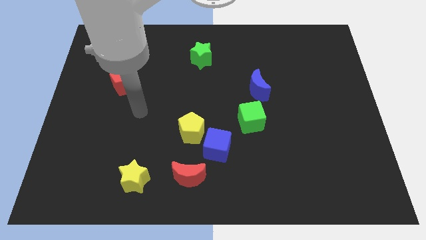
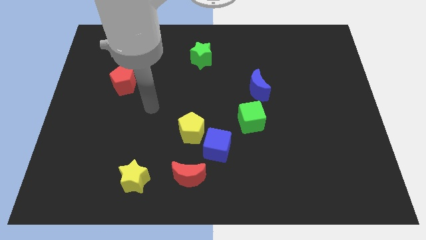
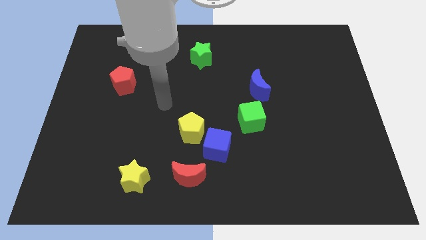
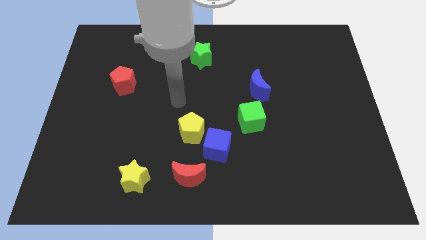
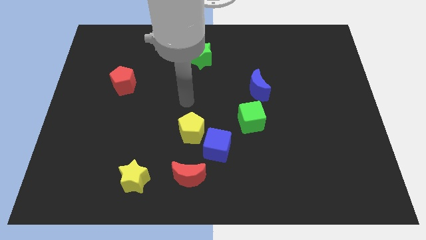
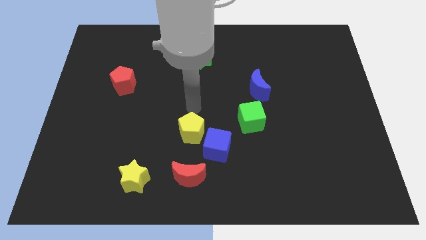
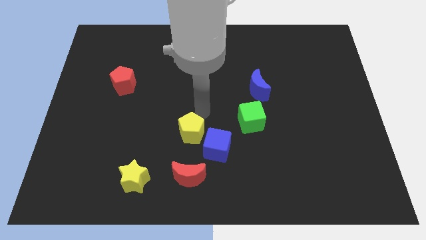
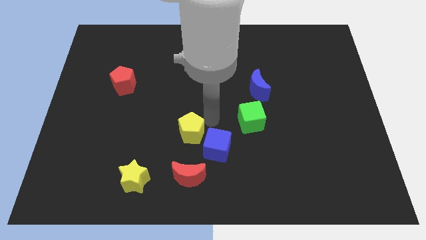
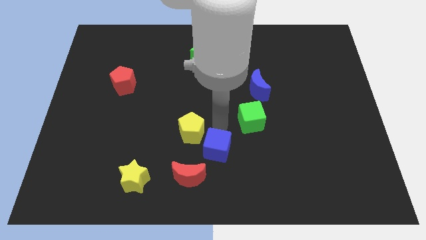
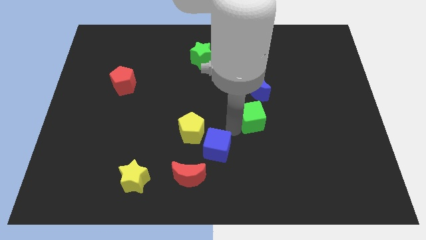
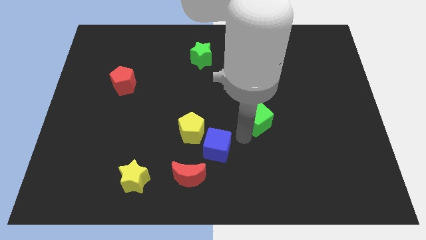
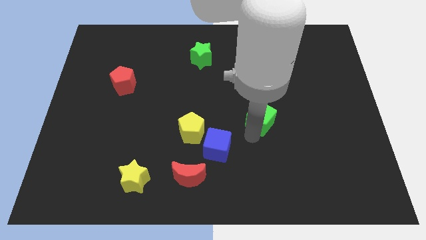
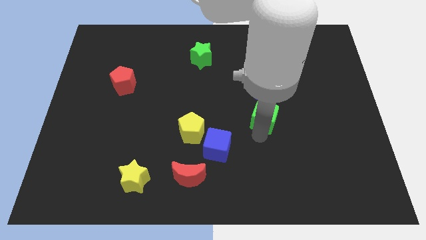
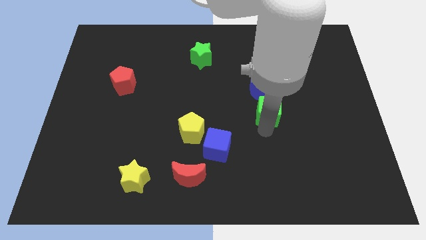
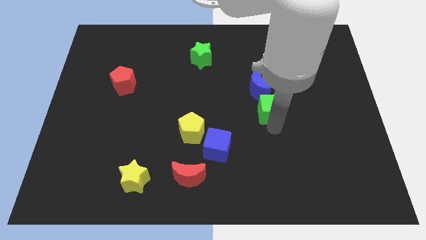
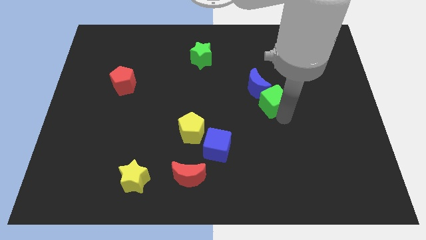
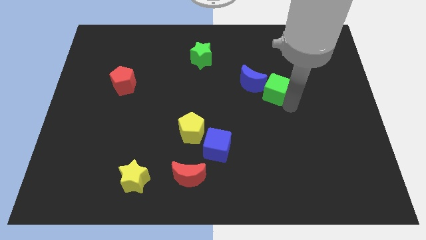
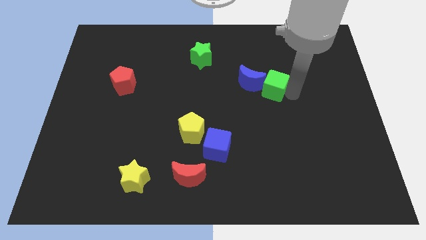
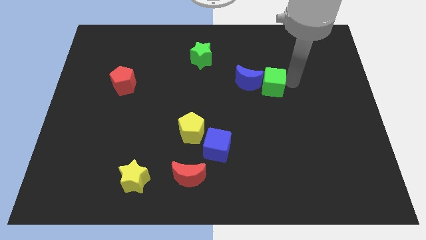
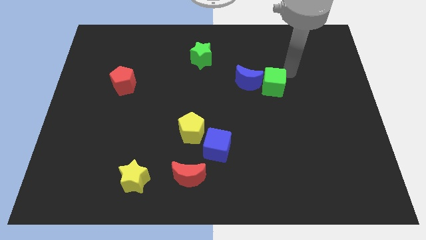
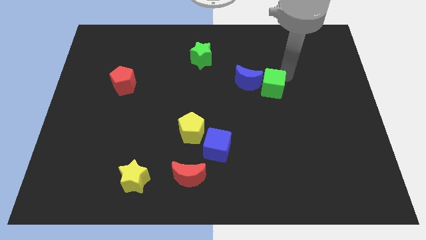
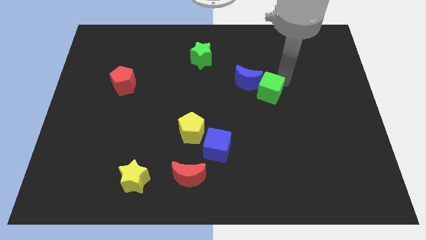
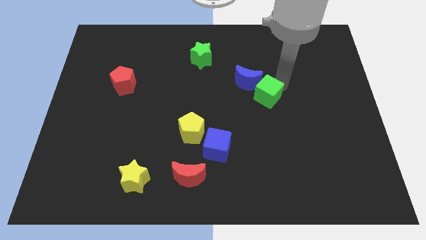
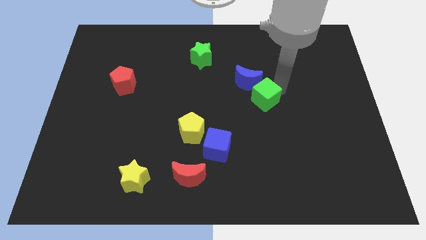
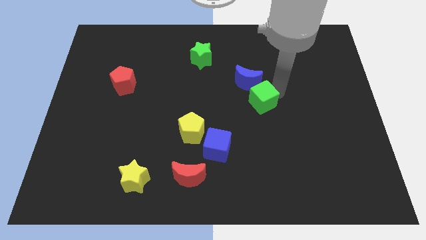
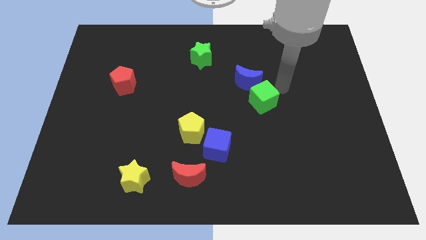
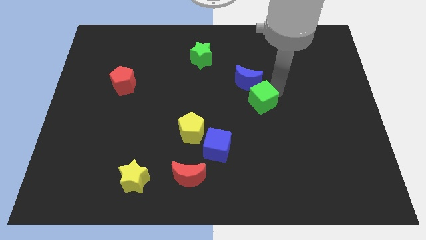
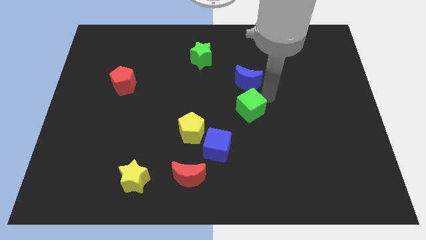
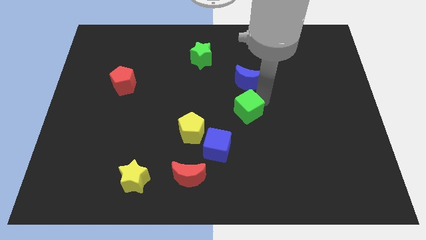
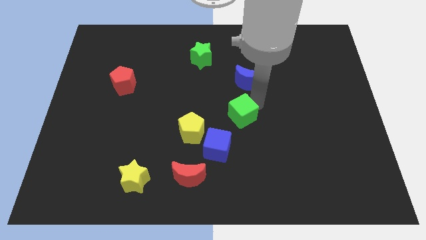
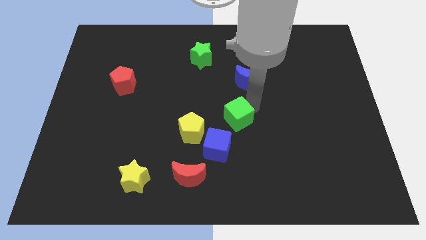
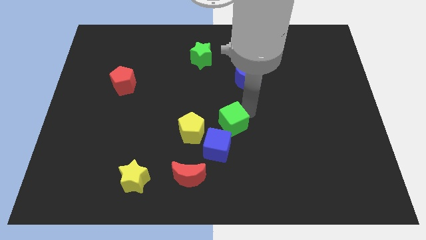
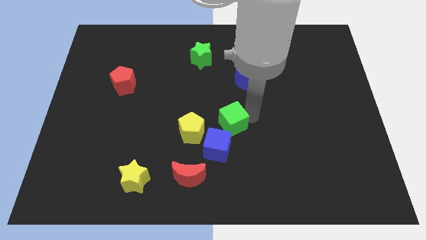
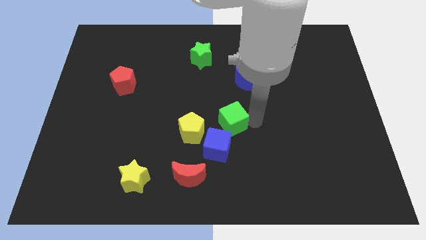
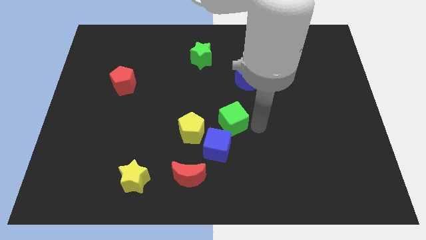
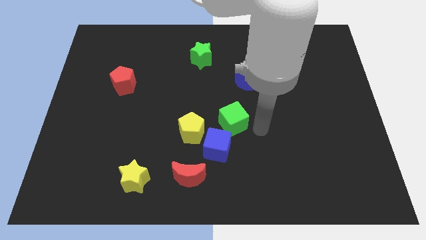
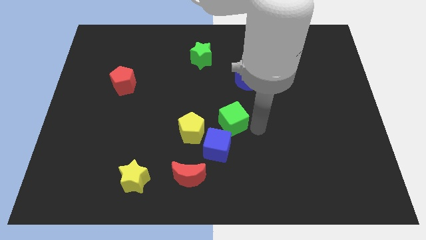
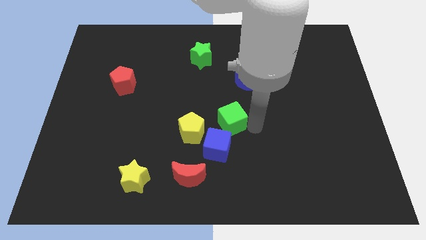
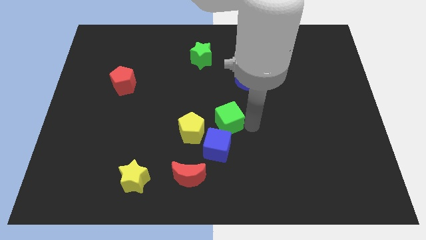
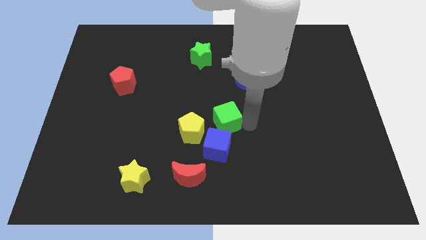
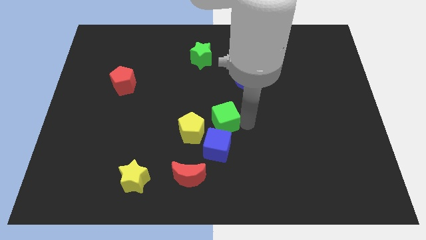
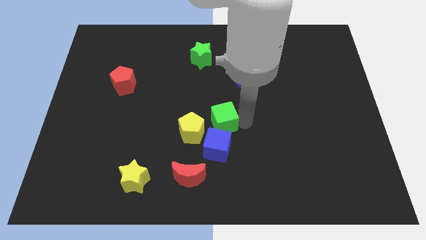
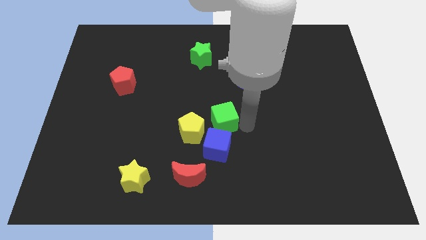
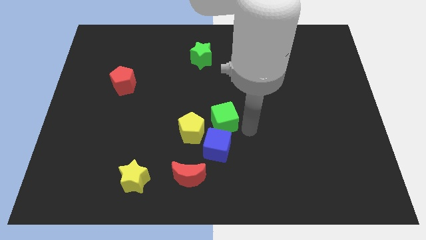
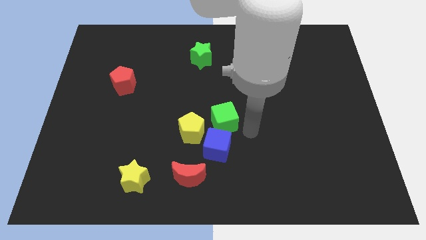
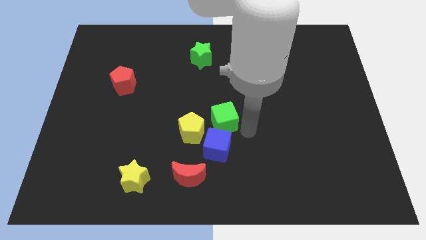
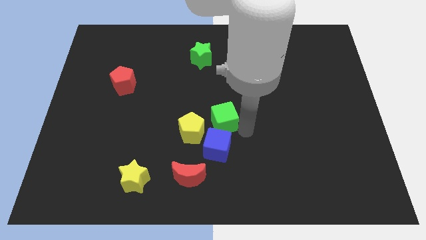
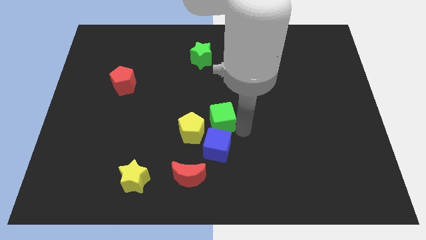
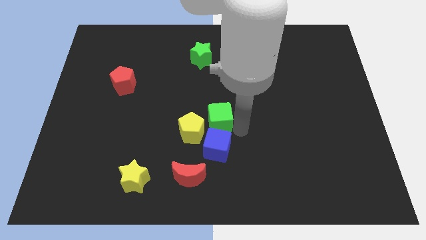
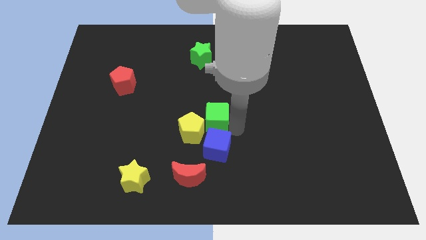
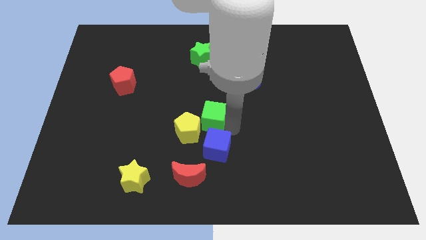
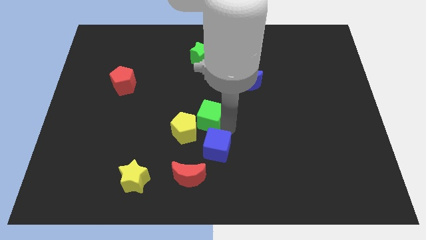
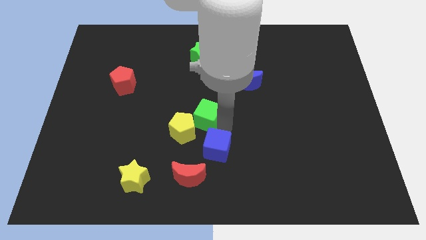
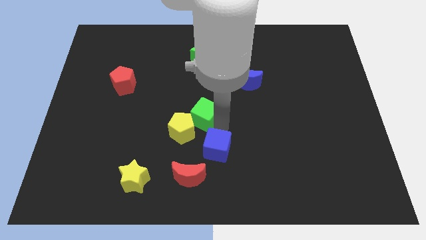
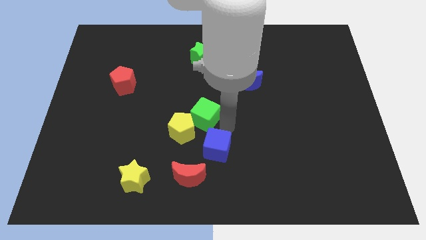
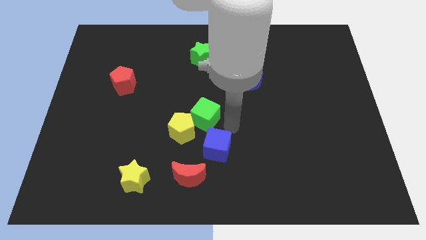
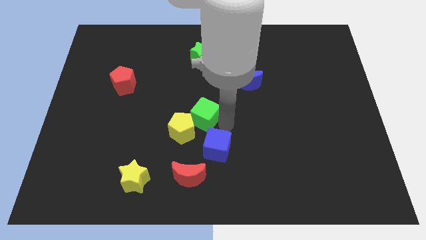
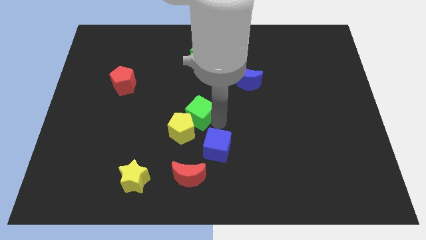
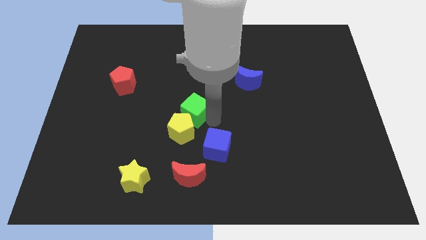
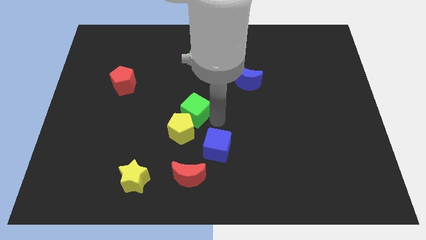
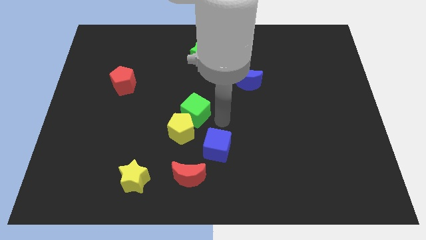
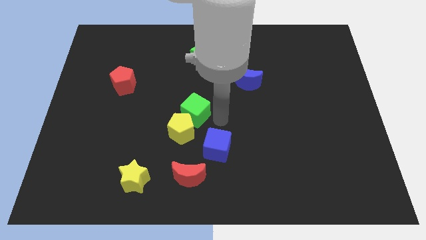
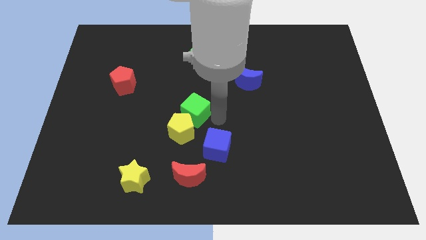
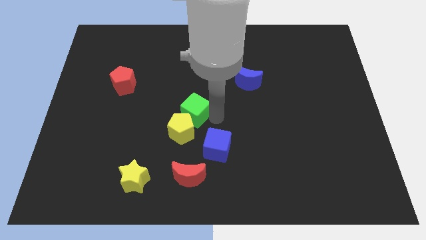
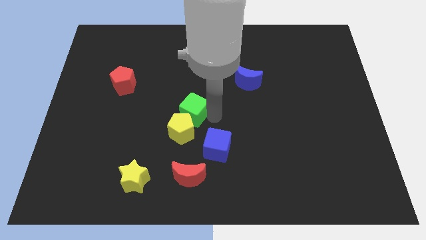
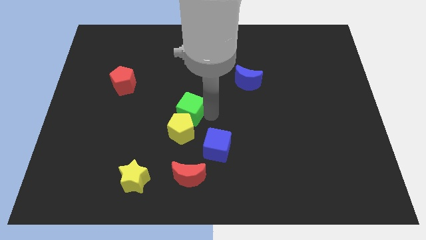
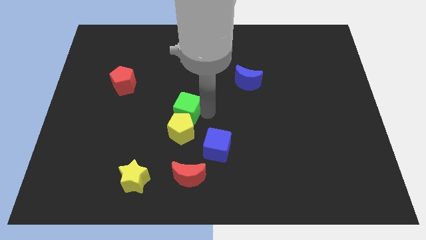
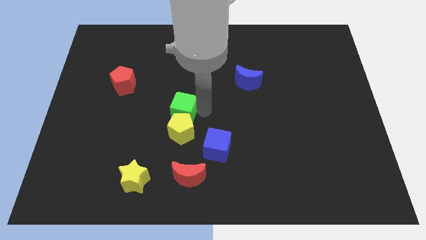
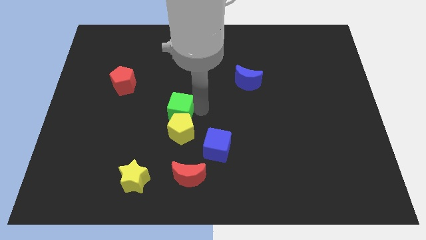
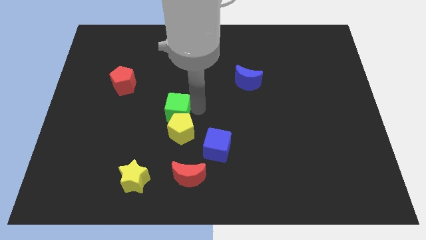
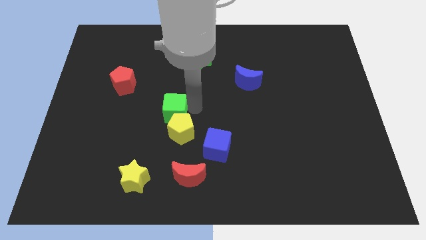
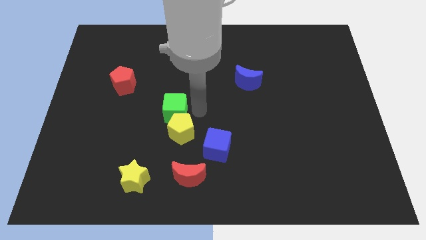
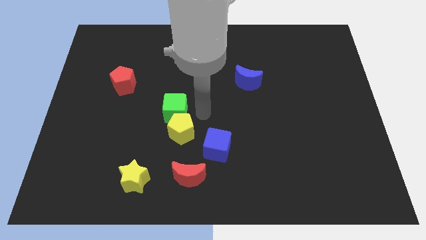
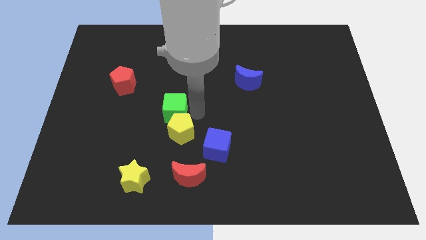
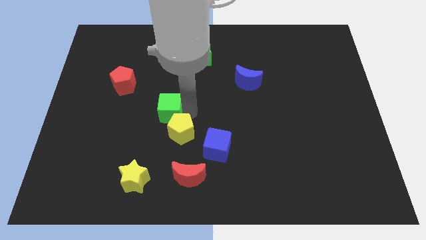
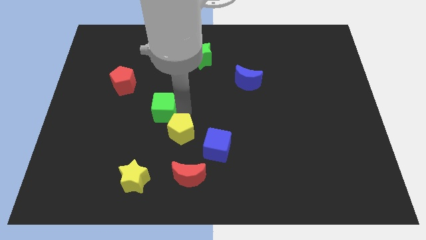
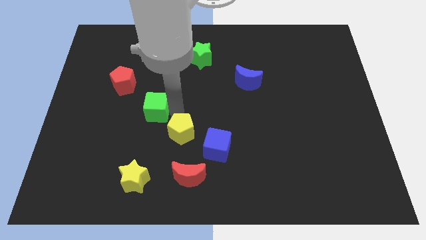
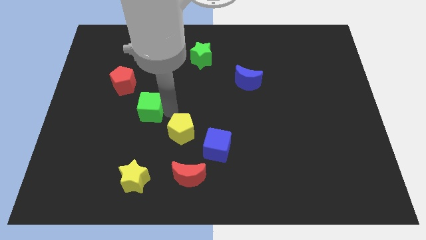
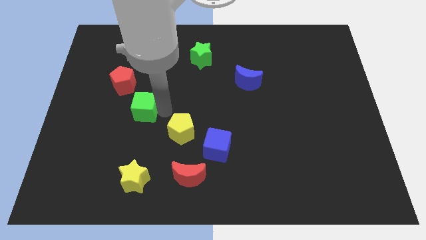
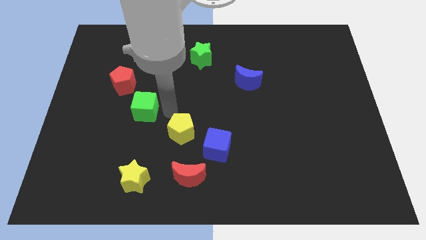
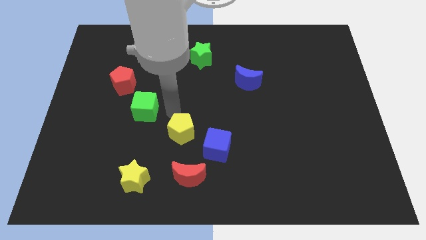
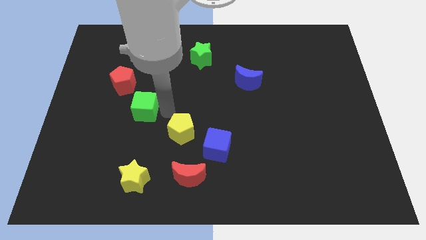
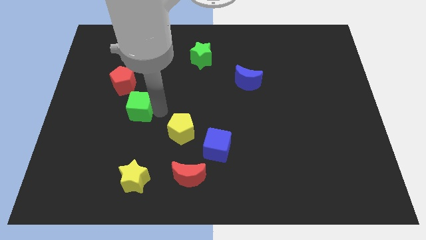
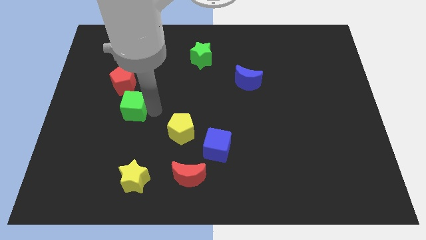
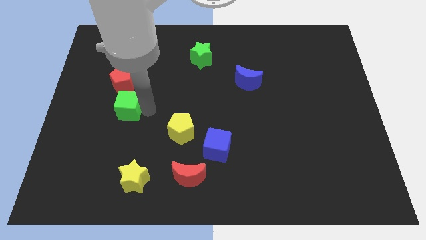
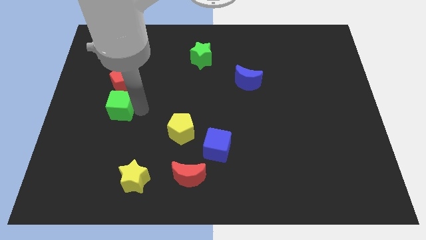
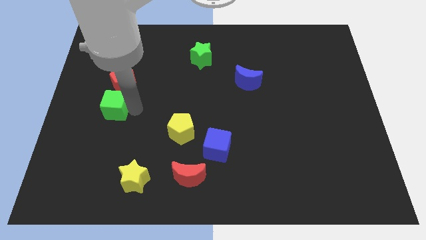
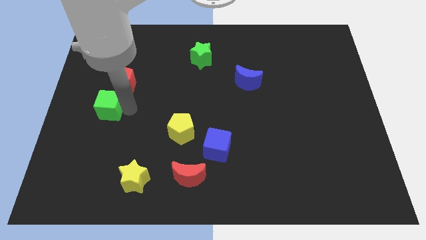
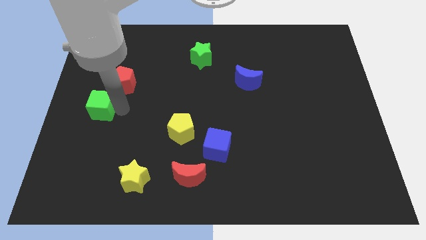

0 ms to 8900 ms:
put the green cube to the left side
